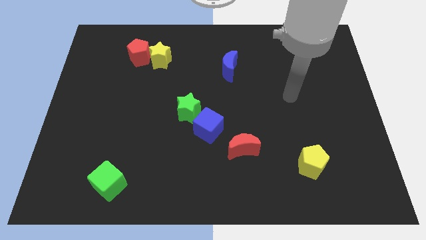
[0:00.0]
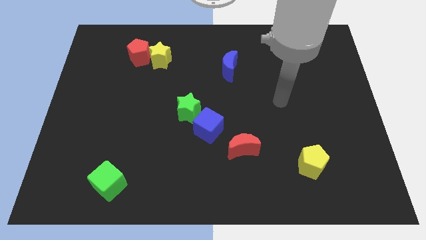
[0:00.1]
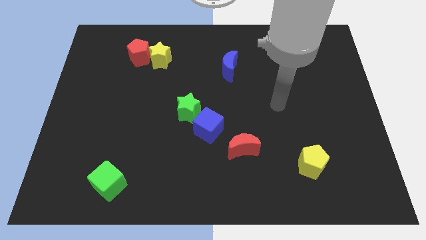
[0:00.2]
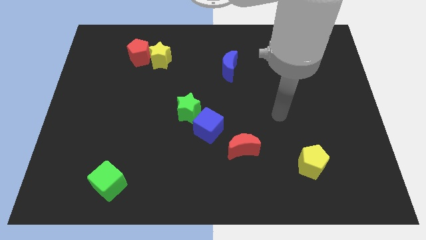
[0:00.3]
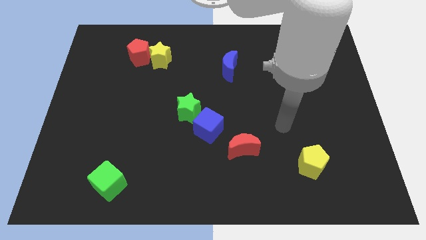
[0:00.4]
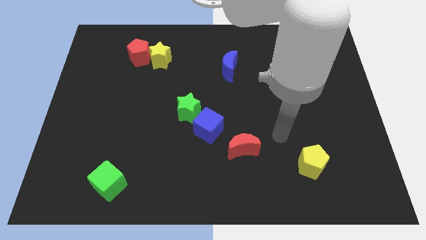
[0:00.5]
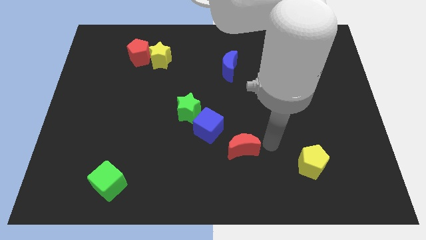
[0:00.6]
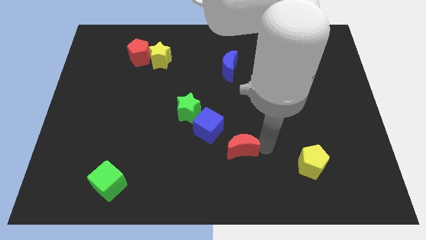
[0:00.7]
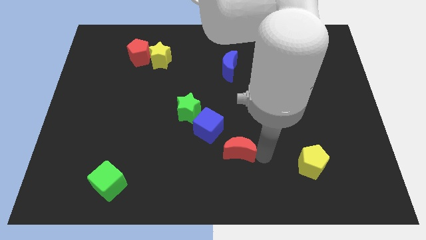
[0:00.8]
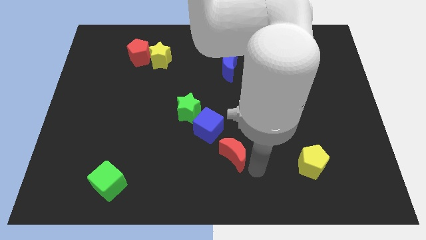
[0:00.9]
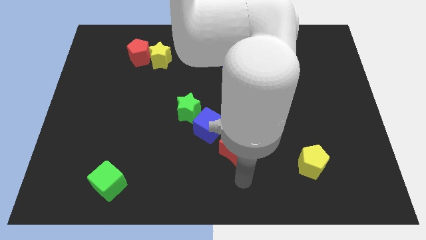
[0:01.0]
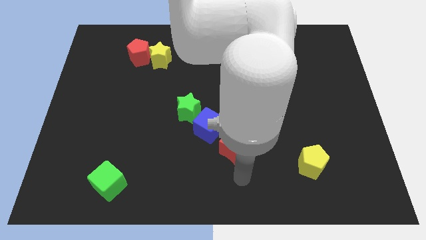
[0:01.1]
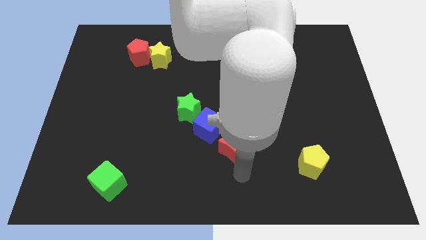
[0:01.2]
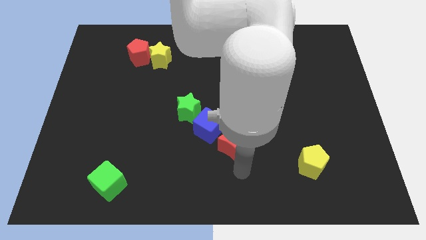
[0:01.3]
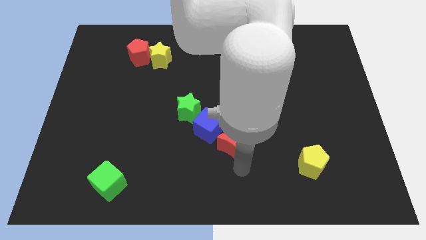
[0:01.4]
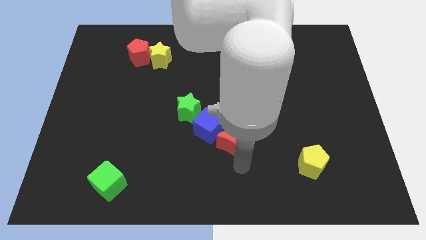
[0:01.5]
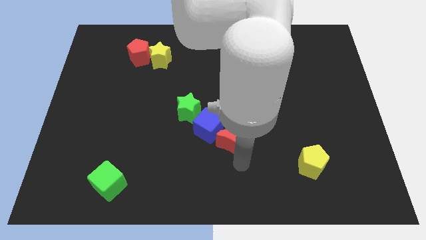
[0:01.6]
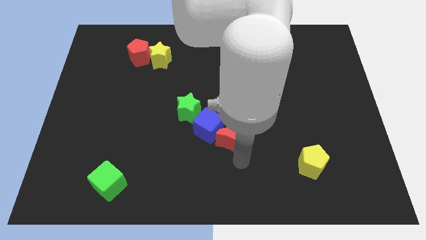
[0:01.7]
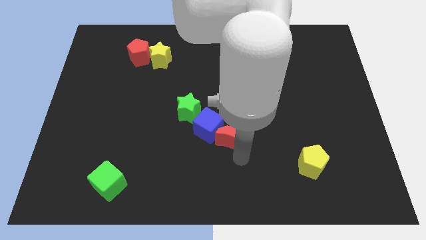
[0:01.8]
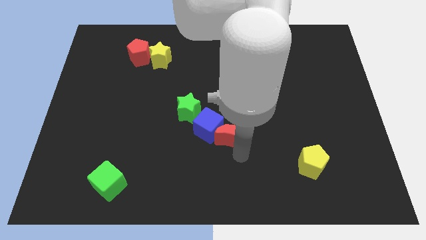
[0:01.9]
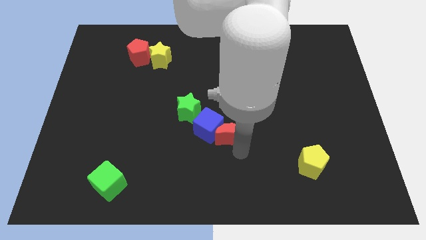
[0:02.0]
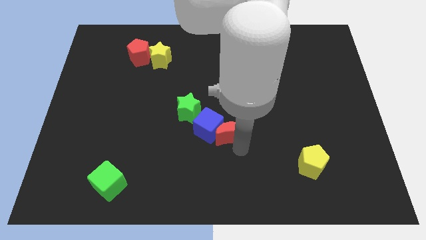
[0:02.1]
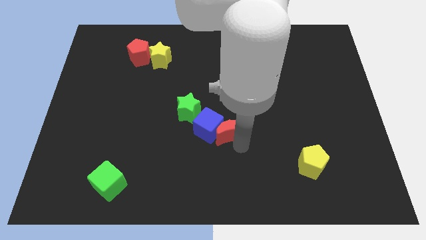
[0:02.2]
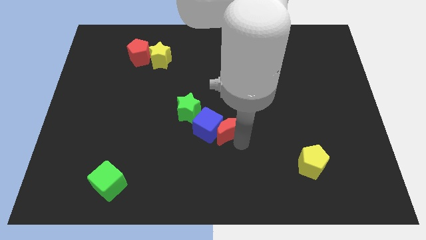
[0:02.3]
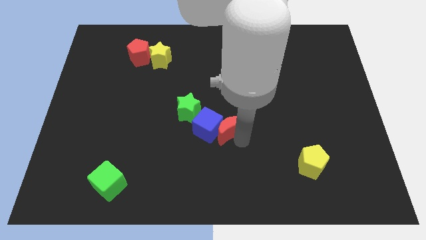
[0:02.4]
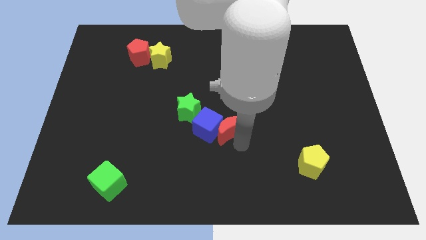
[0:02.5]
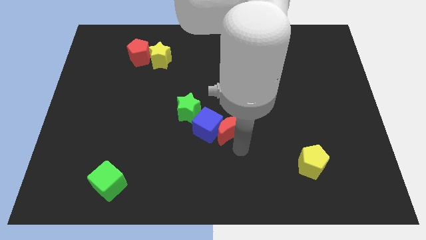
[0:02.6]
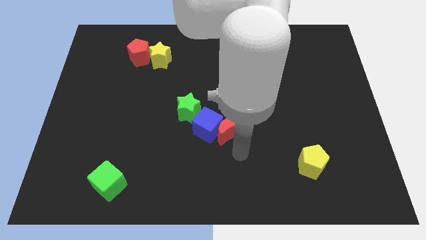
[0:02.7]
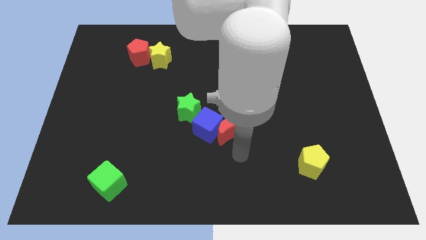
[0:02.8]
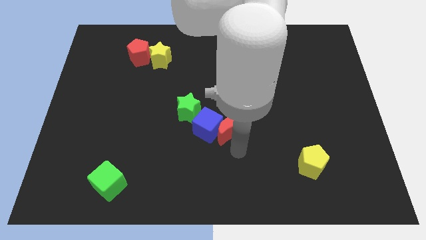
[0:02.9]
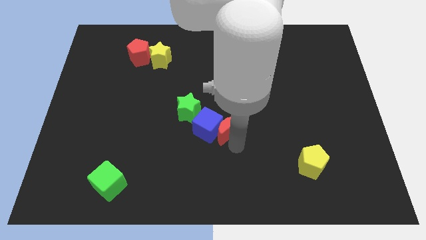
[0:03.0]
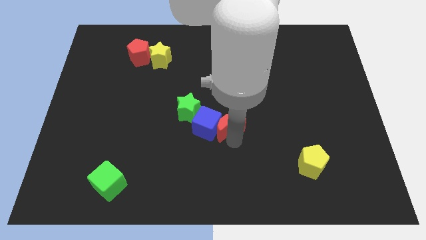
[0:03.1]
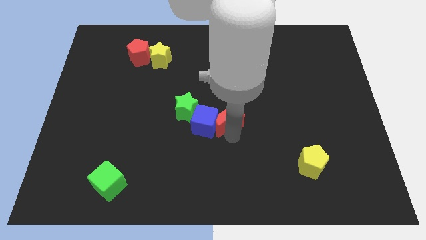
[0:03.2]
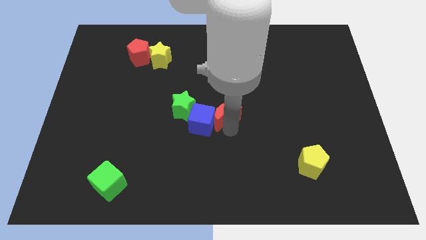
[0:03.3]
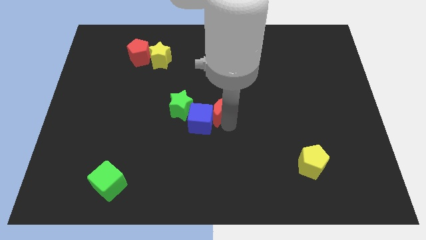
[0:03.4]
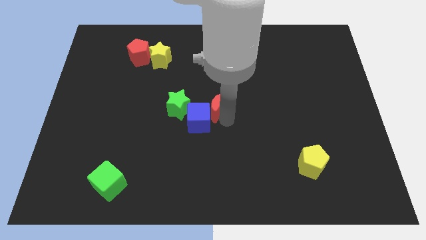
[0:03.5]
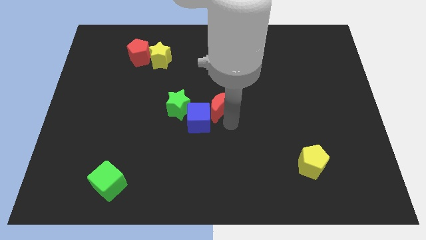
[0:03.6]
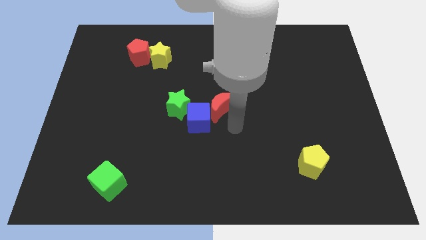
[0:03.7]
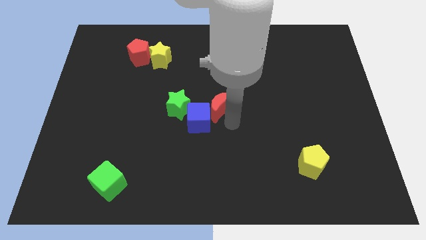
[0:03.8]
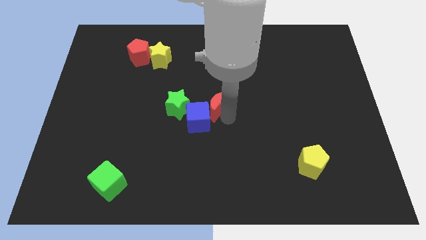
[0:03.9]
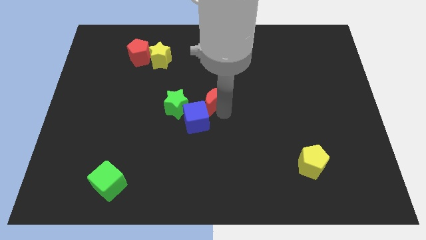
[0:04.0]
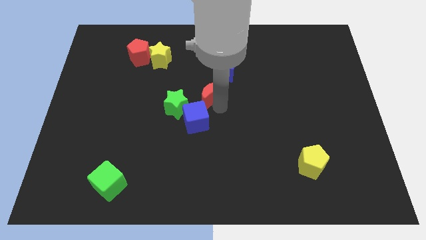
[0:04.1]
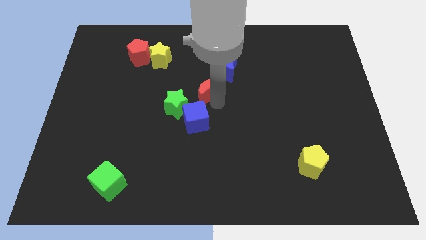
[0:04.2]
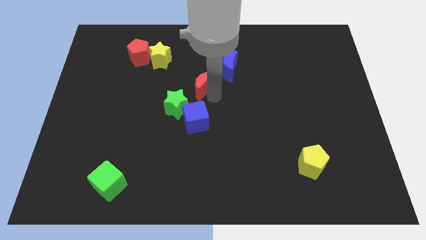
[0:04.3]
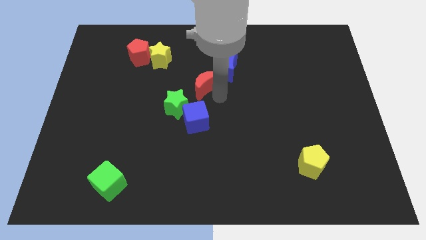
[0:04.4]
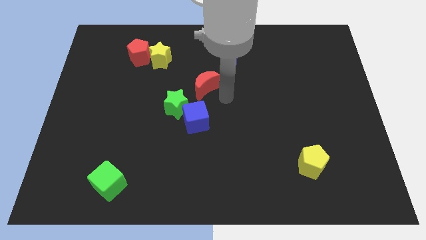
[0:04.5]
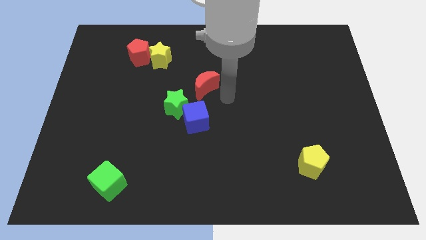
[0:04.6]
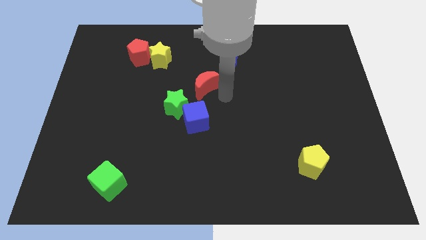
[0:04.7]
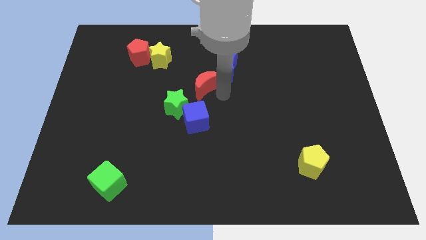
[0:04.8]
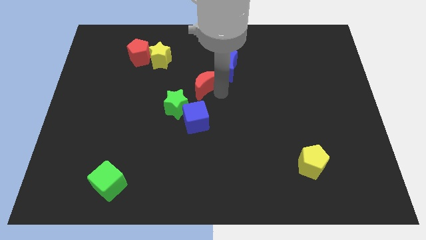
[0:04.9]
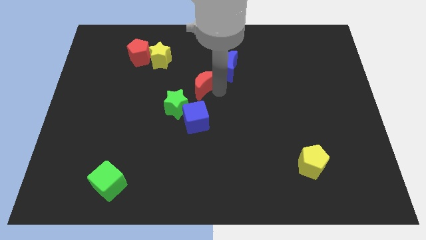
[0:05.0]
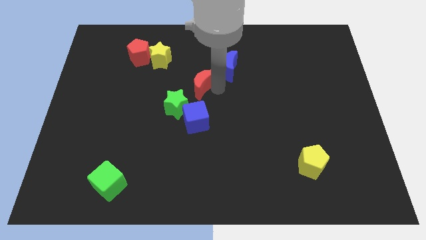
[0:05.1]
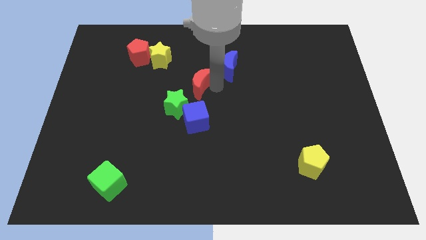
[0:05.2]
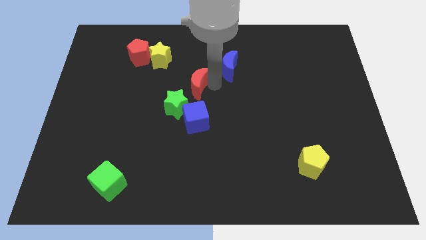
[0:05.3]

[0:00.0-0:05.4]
put the red moon to the top of the green star

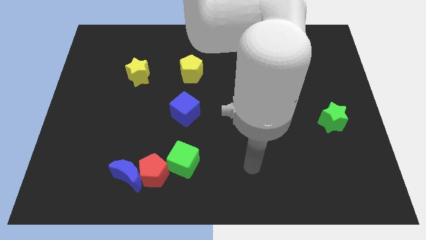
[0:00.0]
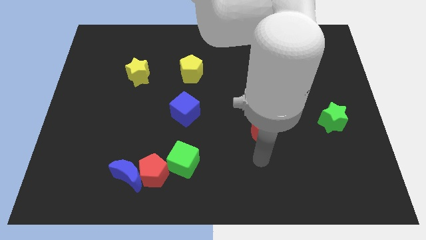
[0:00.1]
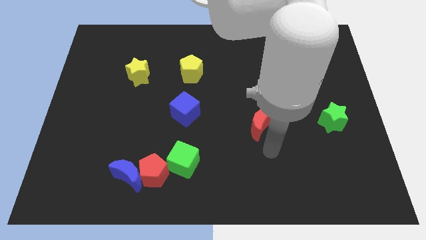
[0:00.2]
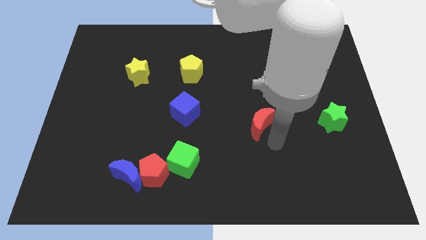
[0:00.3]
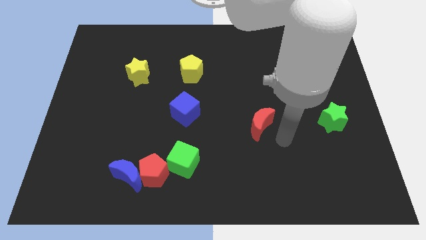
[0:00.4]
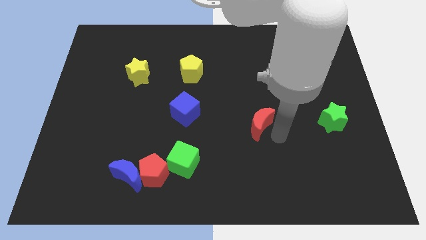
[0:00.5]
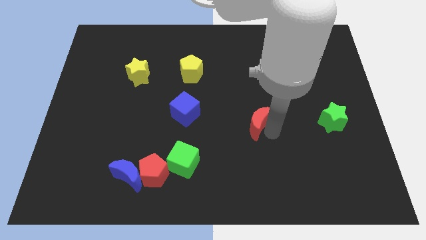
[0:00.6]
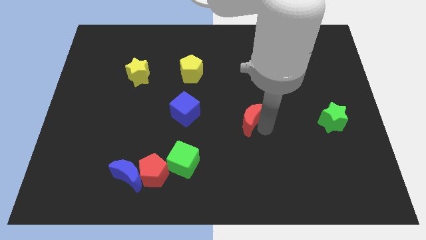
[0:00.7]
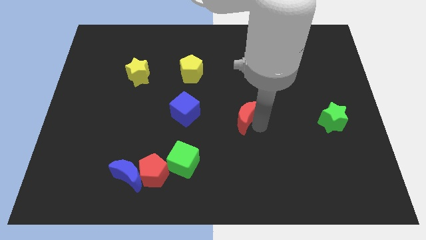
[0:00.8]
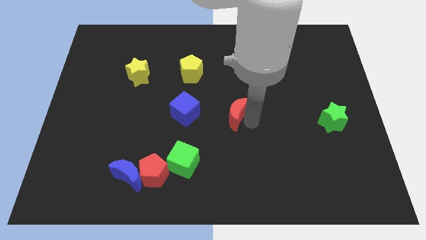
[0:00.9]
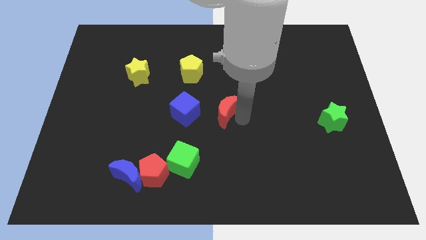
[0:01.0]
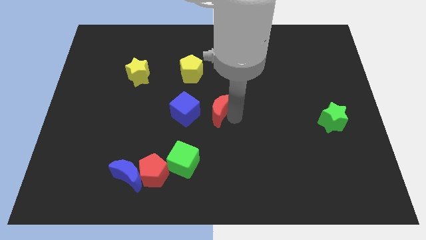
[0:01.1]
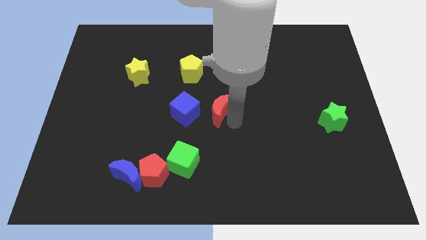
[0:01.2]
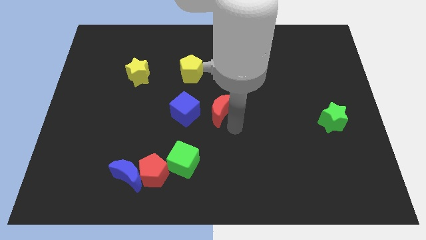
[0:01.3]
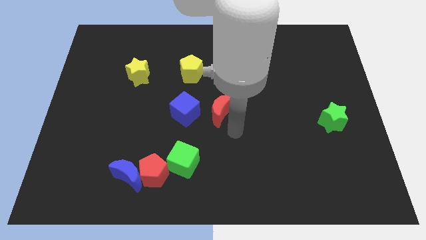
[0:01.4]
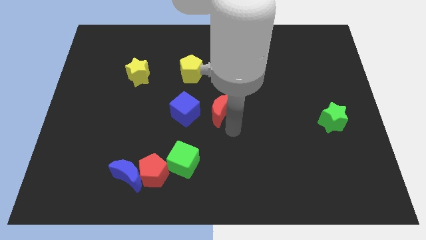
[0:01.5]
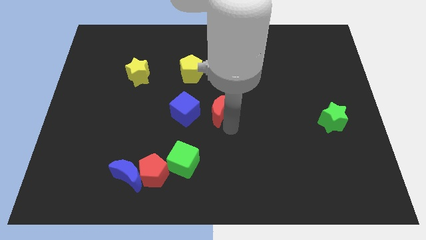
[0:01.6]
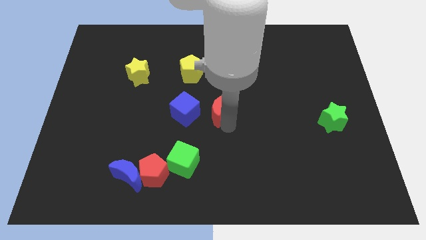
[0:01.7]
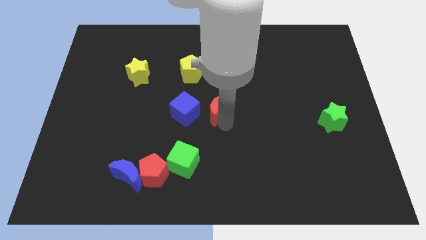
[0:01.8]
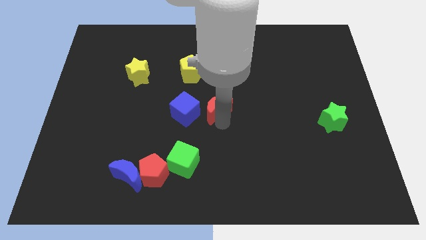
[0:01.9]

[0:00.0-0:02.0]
slide the red moon to the top right of the blue cube

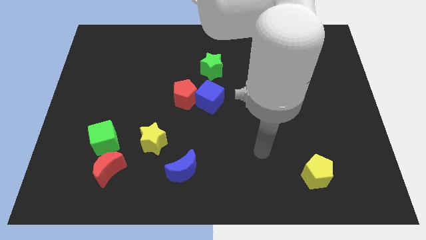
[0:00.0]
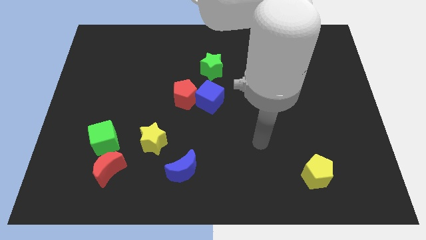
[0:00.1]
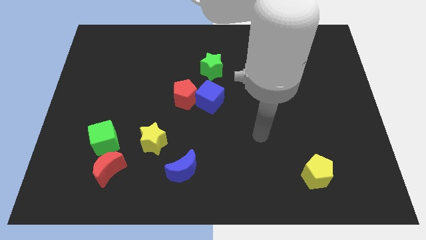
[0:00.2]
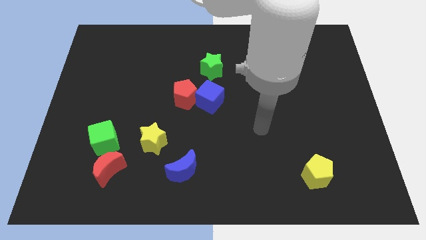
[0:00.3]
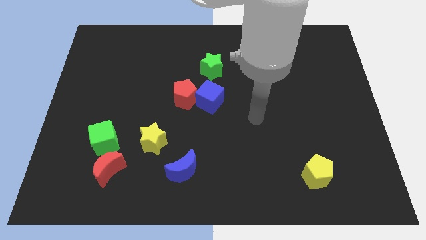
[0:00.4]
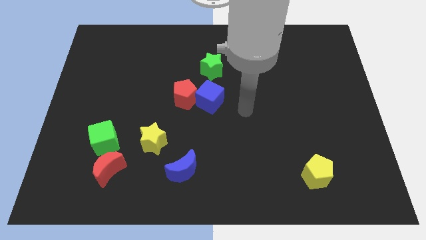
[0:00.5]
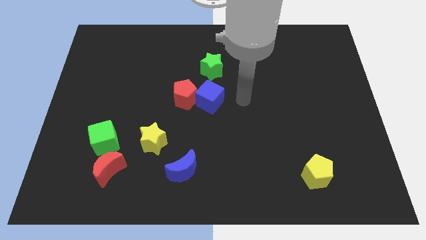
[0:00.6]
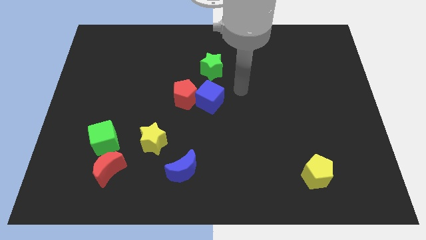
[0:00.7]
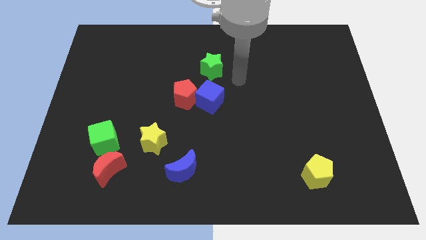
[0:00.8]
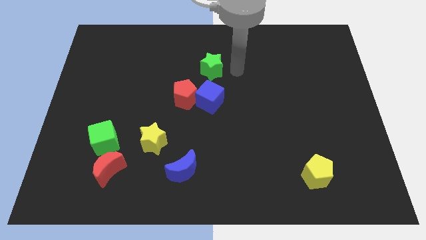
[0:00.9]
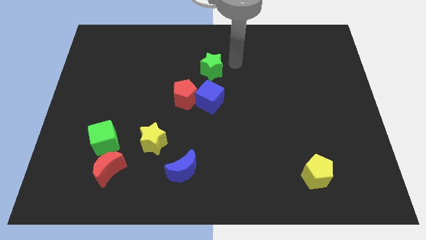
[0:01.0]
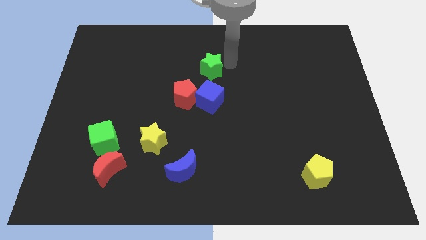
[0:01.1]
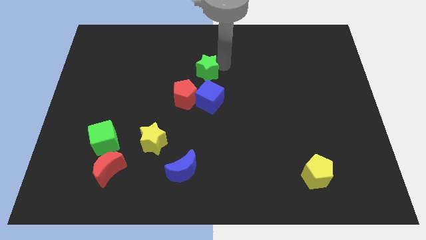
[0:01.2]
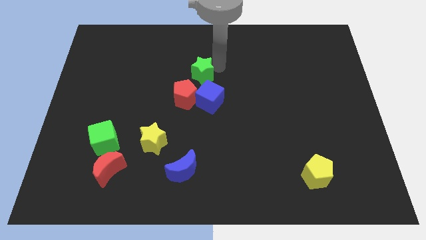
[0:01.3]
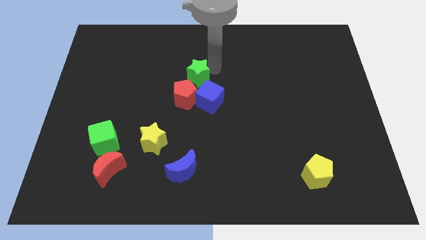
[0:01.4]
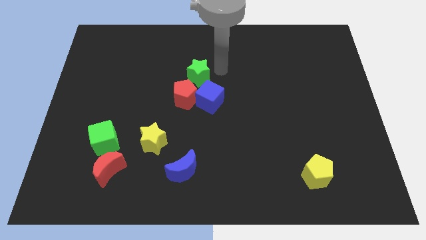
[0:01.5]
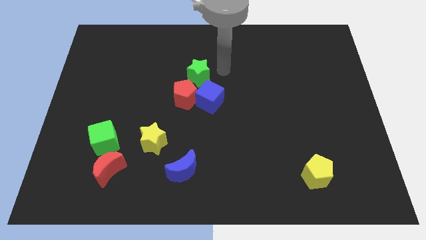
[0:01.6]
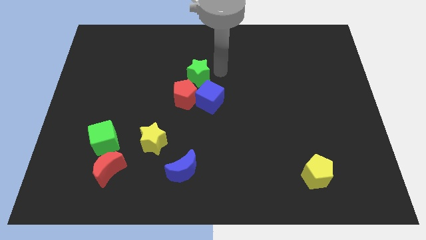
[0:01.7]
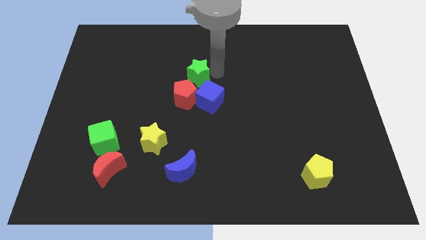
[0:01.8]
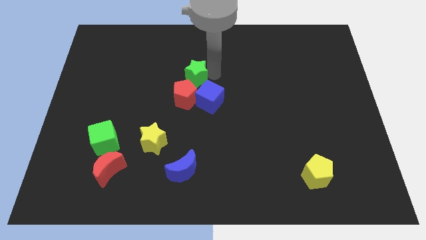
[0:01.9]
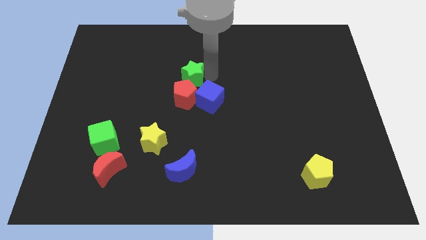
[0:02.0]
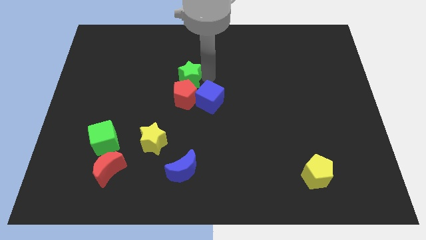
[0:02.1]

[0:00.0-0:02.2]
slide the green star to the top left of the red pentagon
